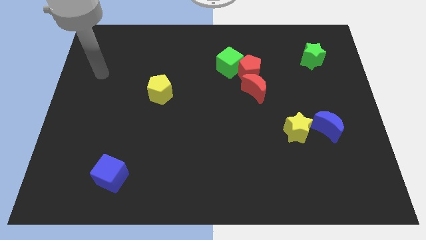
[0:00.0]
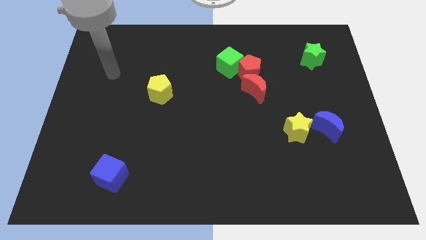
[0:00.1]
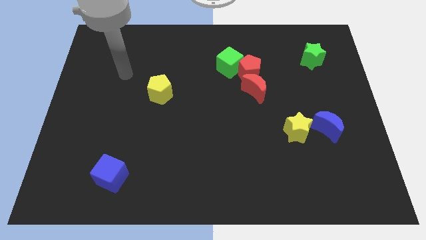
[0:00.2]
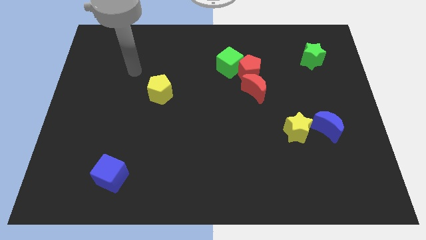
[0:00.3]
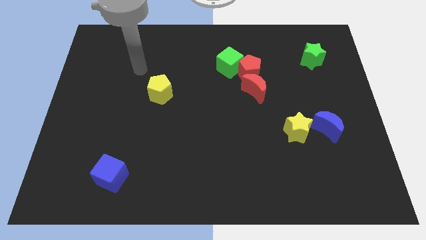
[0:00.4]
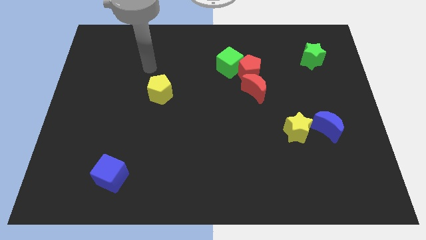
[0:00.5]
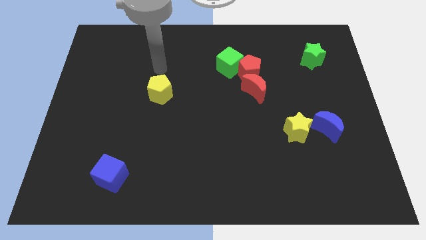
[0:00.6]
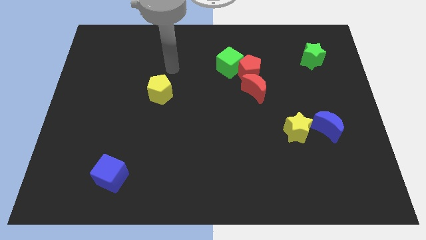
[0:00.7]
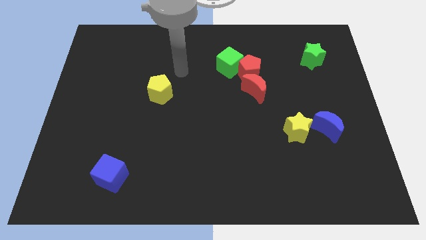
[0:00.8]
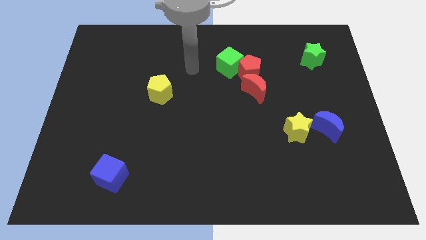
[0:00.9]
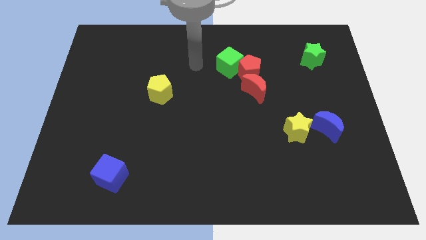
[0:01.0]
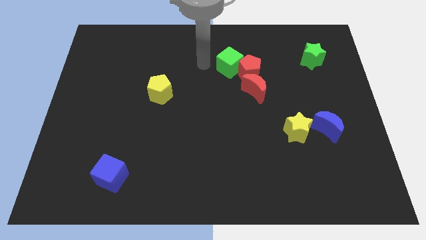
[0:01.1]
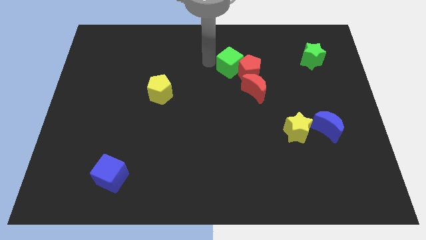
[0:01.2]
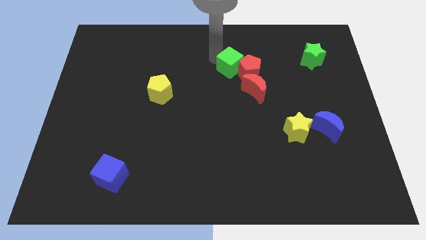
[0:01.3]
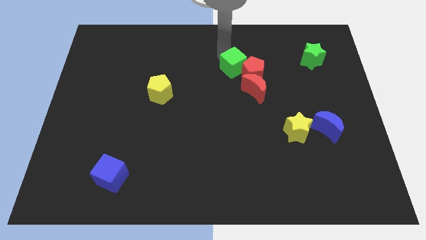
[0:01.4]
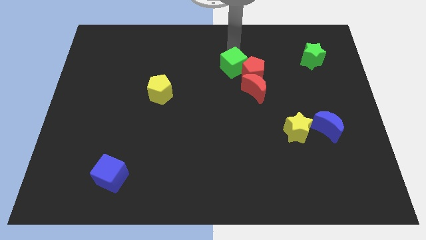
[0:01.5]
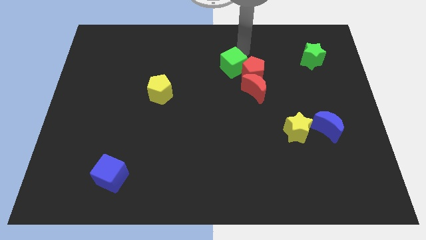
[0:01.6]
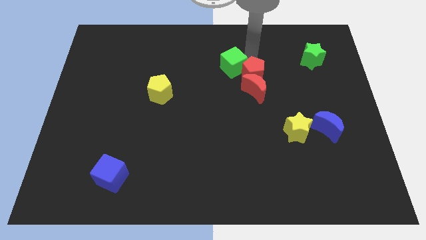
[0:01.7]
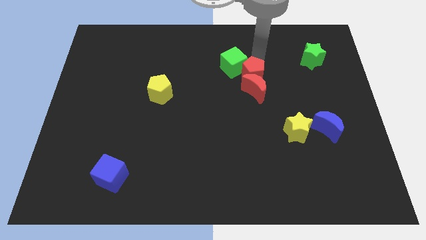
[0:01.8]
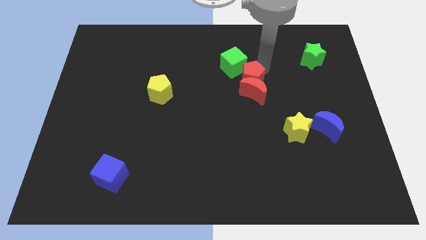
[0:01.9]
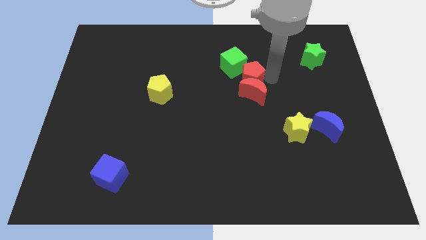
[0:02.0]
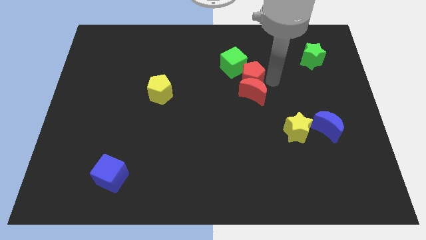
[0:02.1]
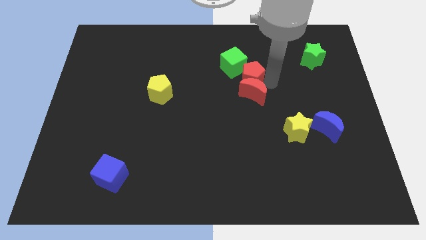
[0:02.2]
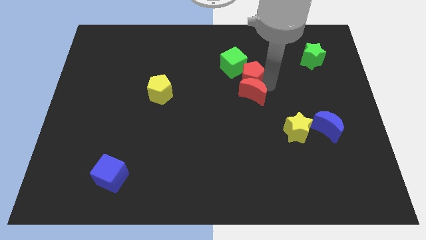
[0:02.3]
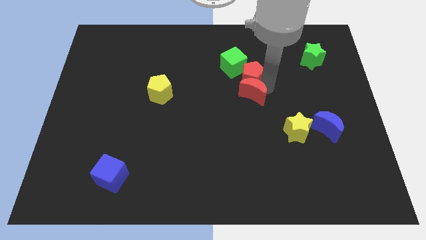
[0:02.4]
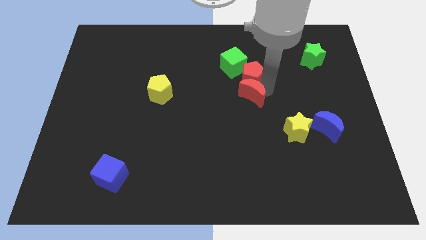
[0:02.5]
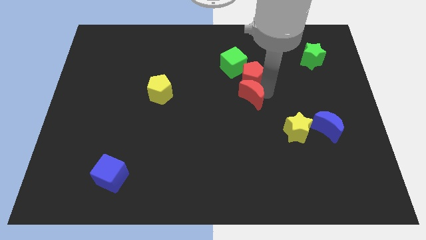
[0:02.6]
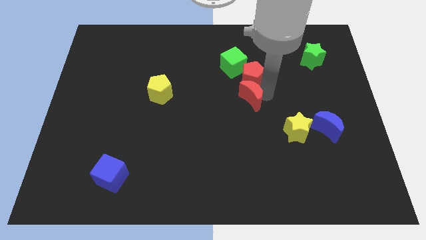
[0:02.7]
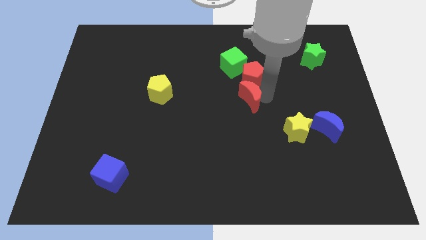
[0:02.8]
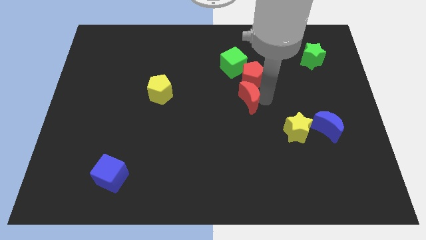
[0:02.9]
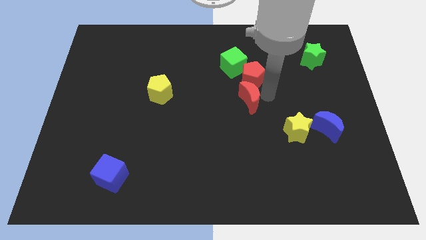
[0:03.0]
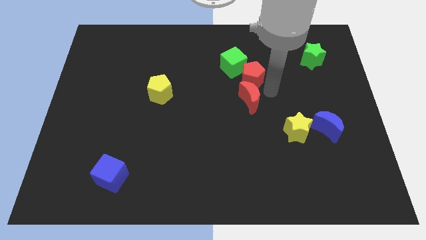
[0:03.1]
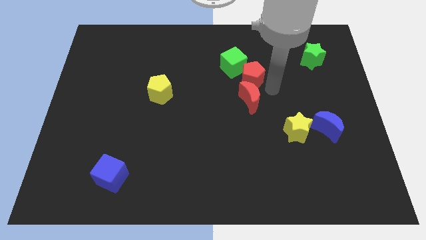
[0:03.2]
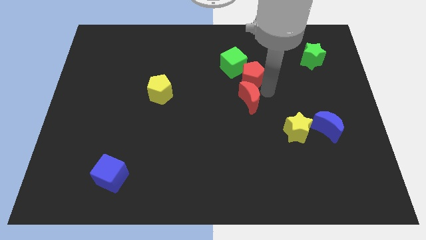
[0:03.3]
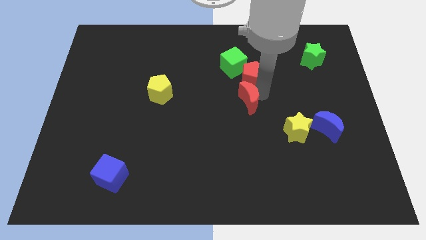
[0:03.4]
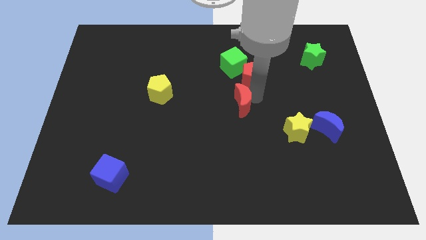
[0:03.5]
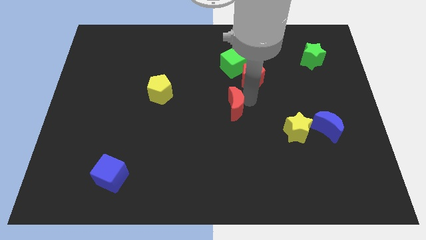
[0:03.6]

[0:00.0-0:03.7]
slightly slide the red moon diagonally down and left

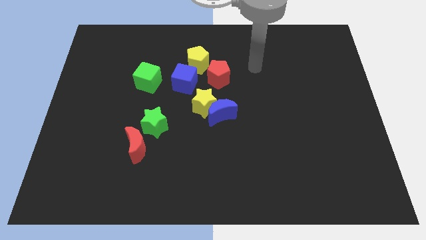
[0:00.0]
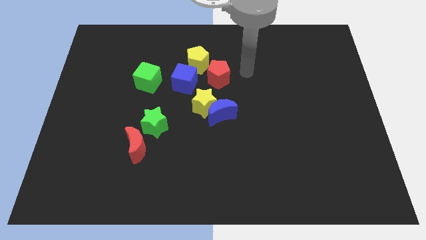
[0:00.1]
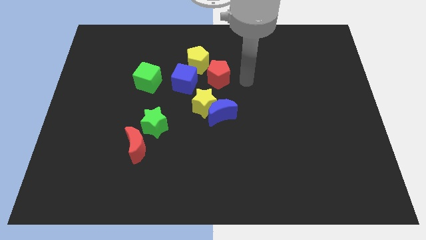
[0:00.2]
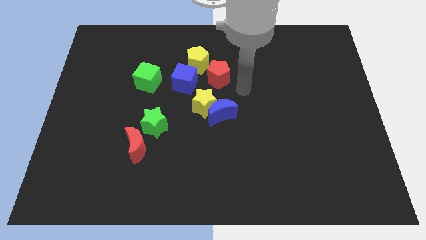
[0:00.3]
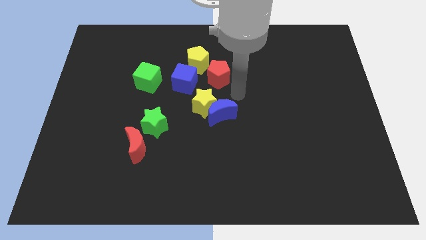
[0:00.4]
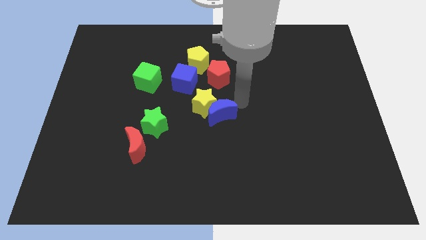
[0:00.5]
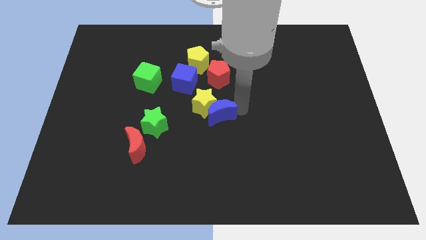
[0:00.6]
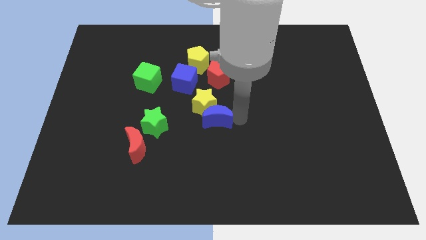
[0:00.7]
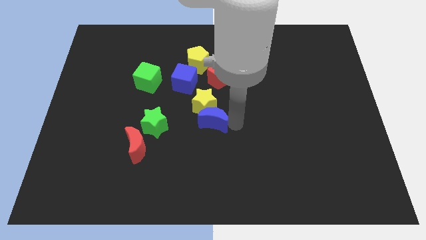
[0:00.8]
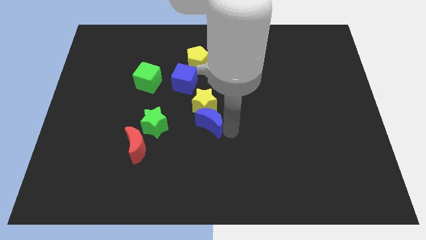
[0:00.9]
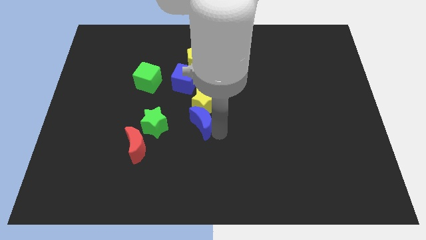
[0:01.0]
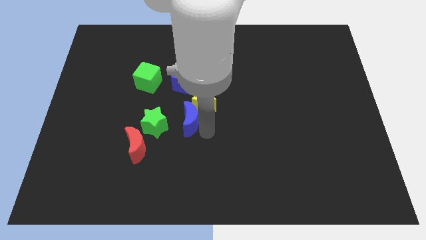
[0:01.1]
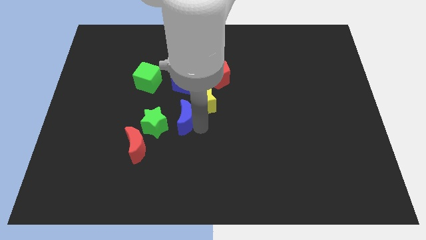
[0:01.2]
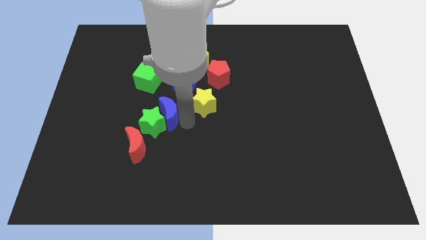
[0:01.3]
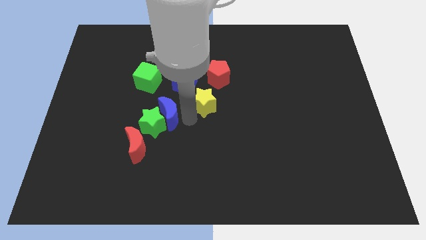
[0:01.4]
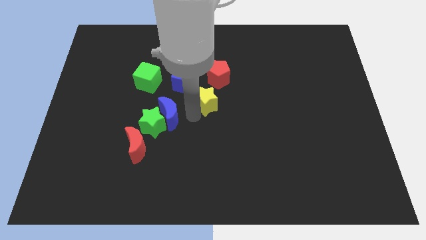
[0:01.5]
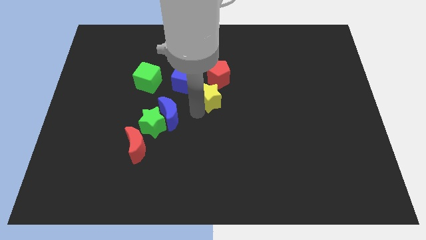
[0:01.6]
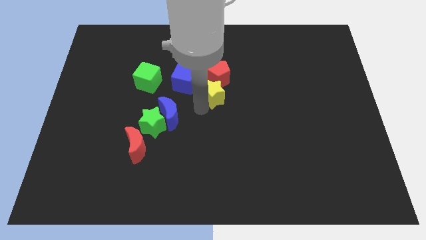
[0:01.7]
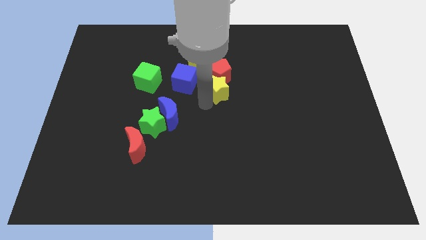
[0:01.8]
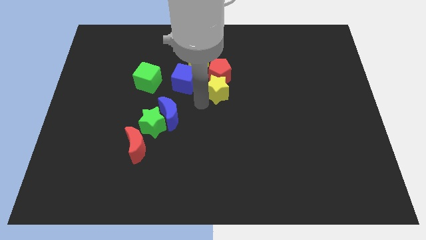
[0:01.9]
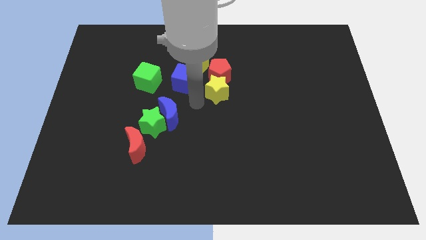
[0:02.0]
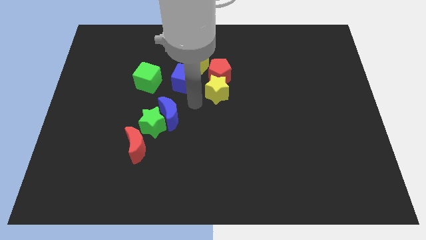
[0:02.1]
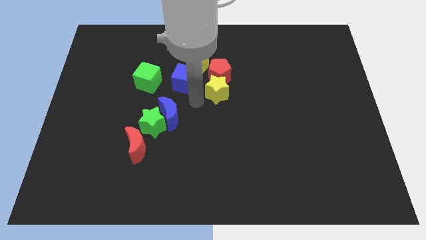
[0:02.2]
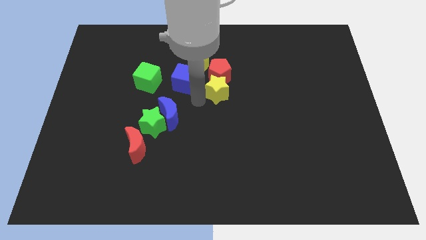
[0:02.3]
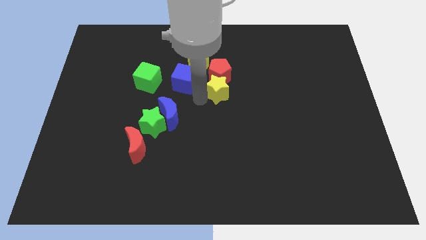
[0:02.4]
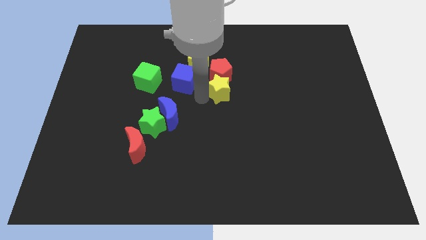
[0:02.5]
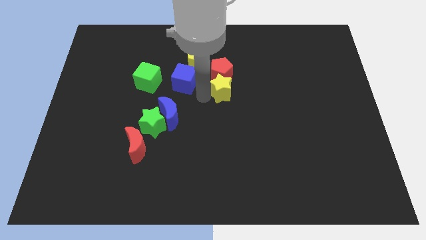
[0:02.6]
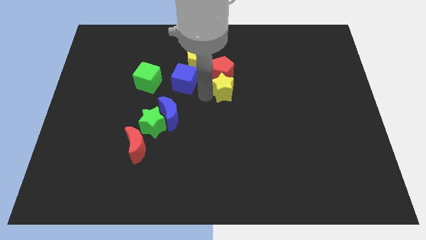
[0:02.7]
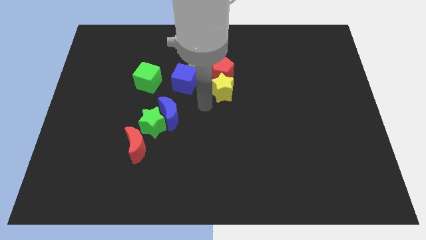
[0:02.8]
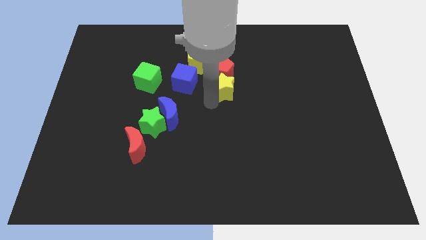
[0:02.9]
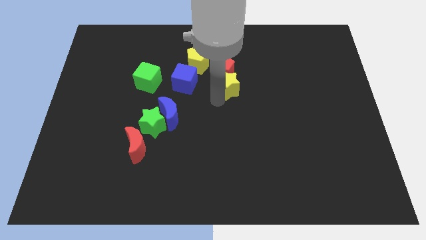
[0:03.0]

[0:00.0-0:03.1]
push the yellow star up and to the right diagonally a little

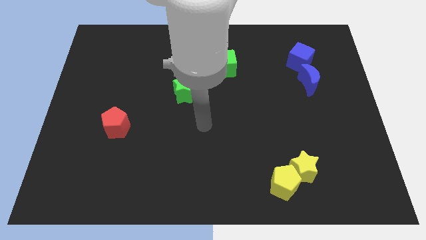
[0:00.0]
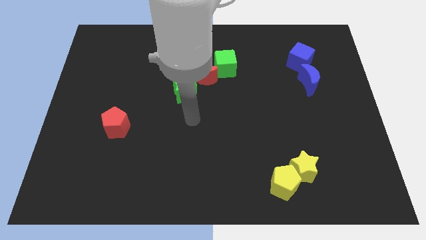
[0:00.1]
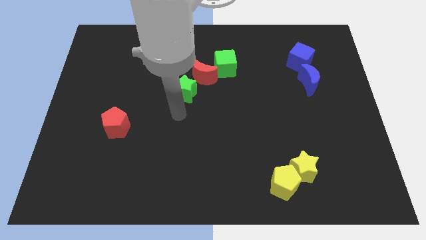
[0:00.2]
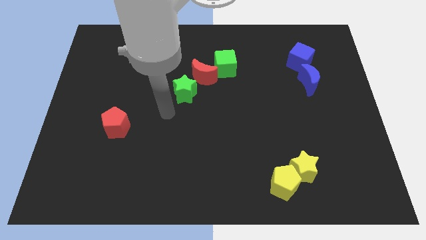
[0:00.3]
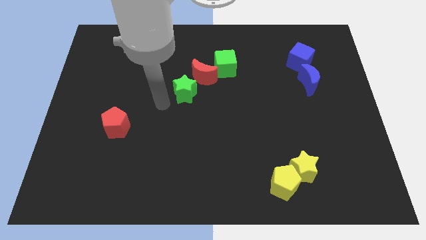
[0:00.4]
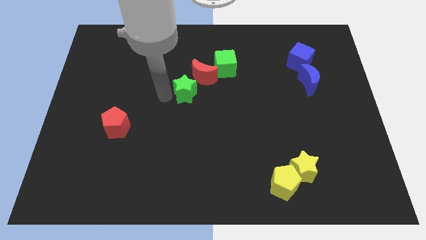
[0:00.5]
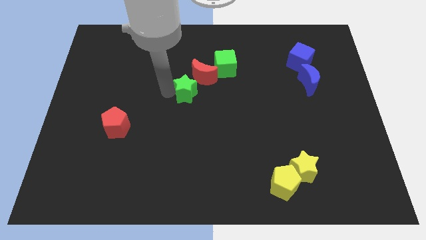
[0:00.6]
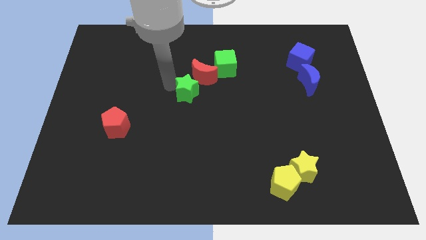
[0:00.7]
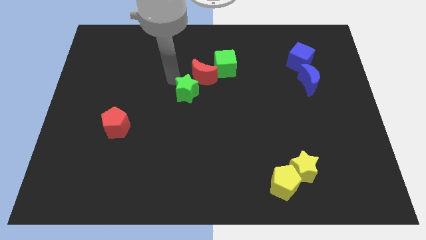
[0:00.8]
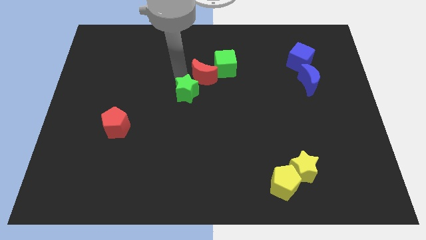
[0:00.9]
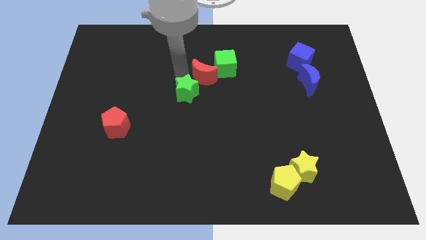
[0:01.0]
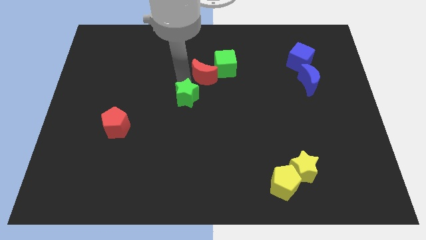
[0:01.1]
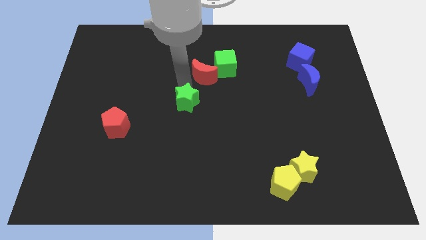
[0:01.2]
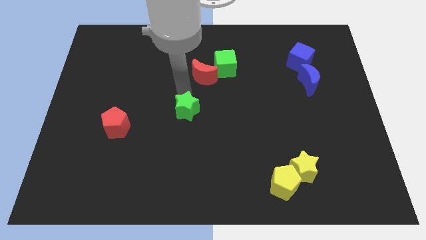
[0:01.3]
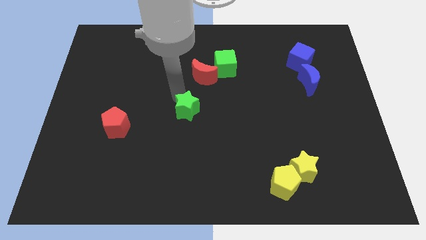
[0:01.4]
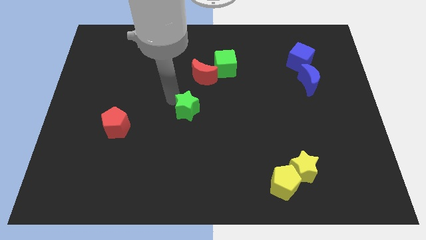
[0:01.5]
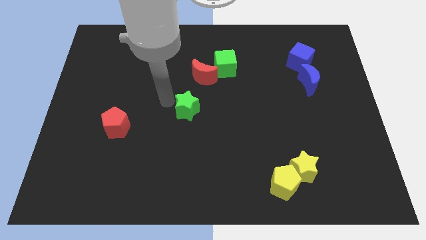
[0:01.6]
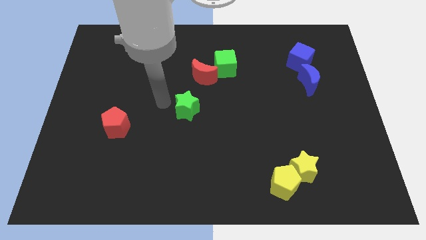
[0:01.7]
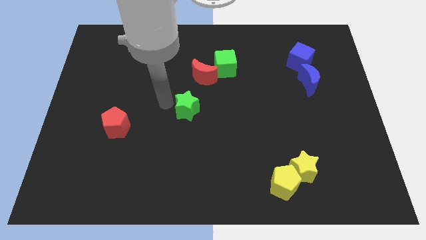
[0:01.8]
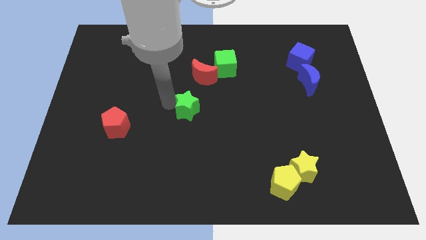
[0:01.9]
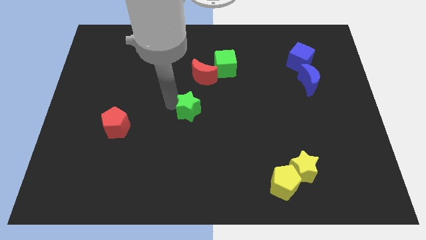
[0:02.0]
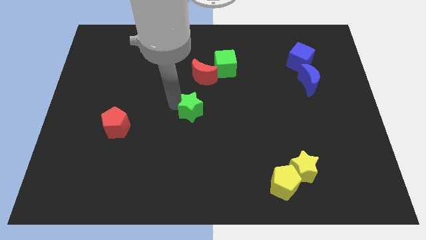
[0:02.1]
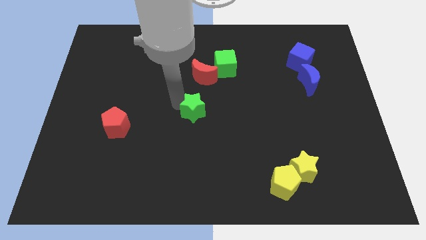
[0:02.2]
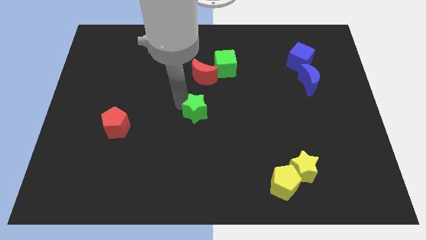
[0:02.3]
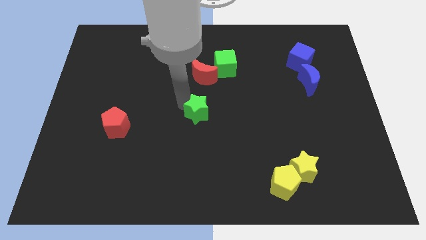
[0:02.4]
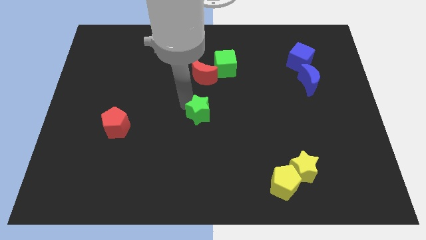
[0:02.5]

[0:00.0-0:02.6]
slightly slide the green star down and then right
